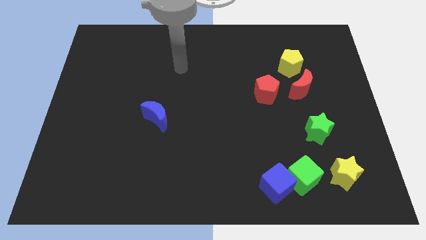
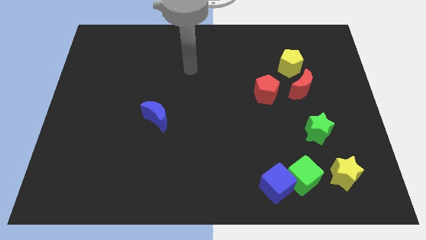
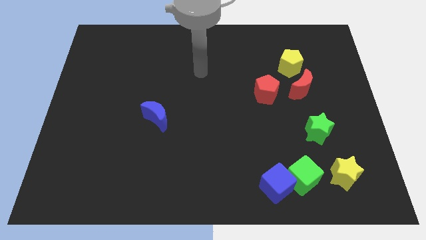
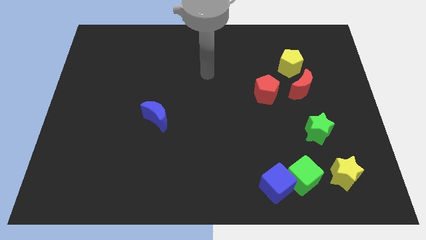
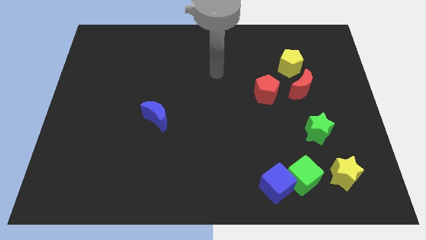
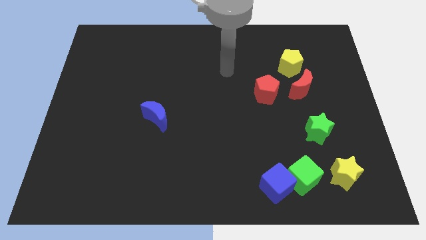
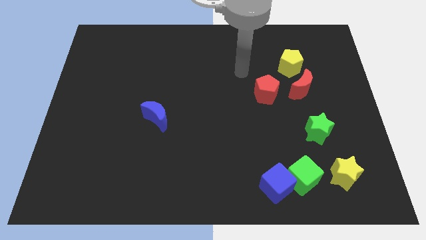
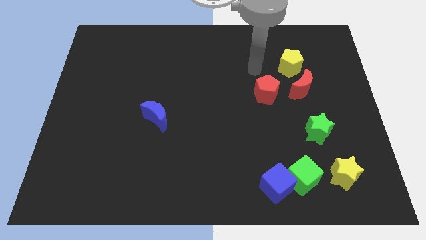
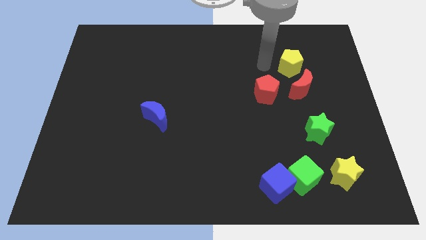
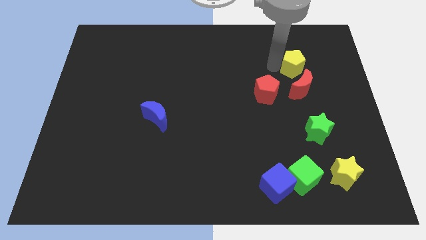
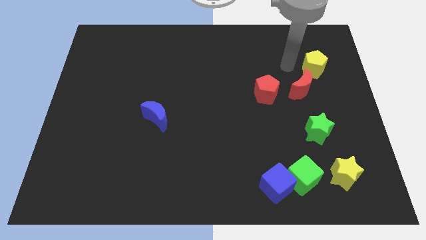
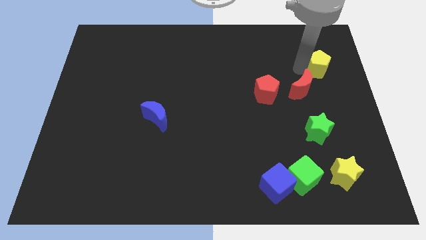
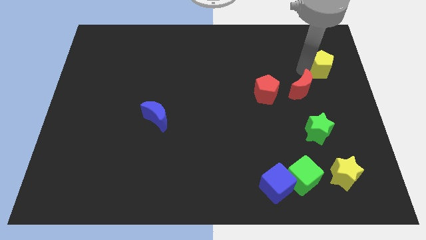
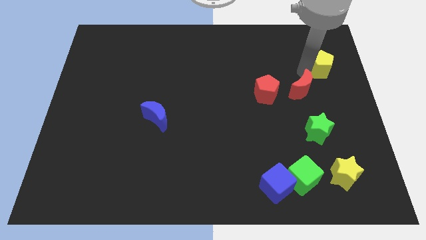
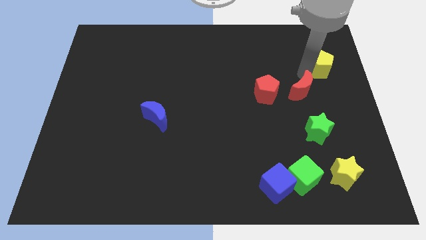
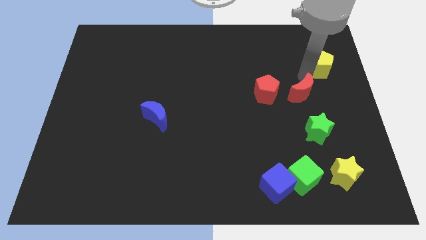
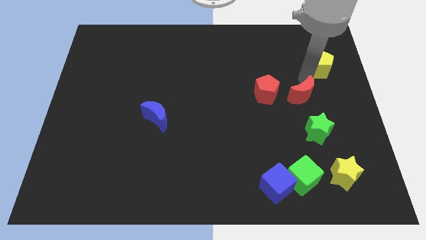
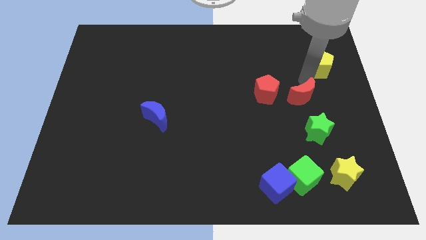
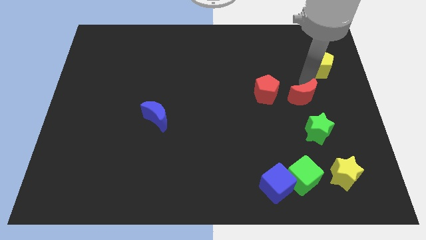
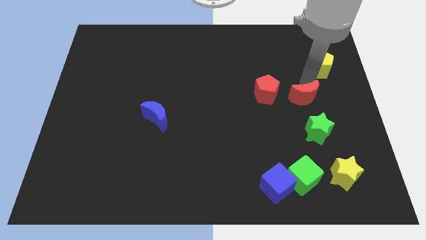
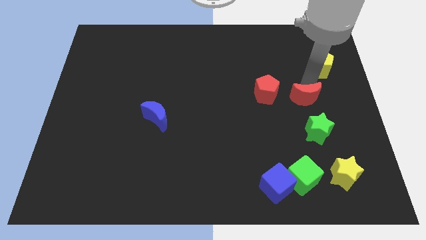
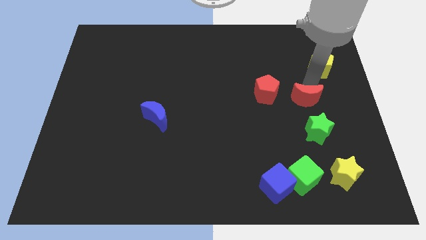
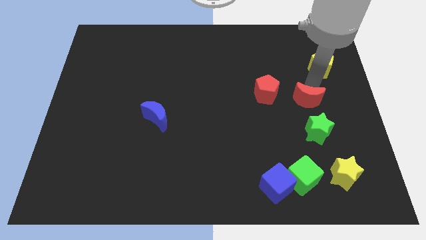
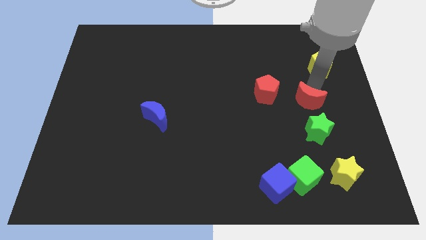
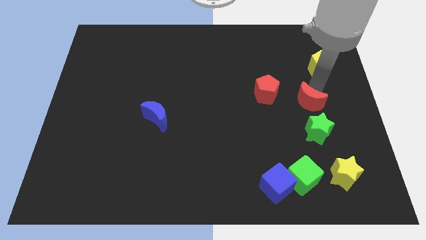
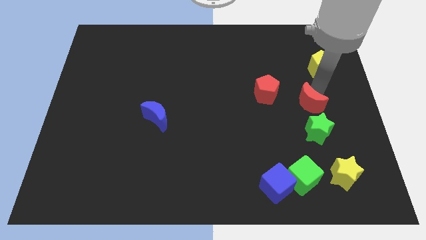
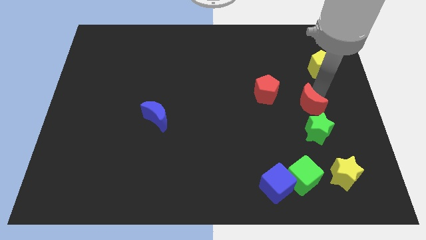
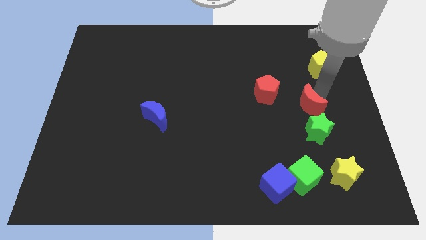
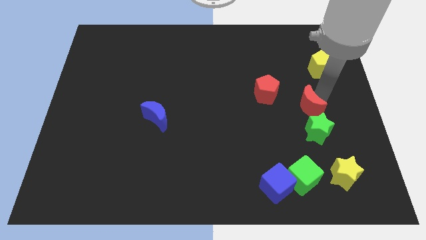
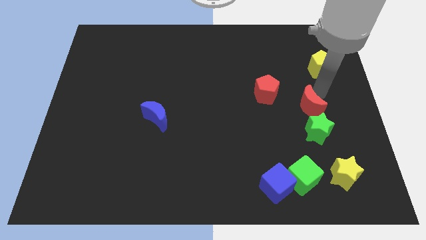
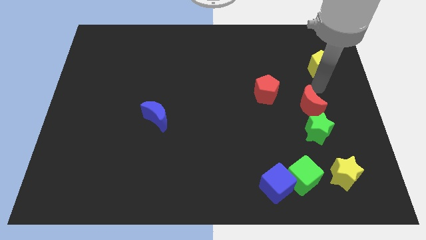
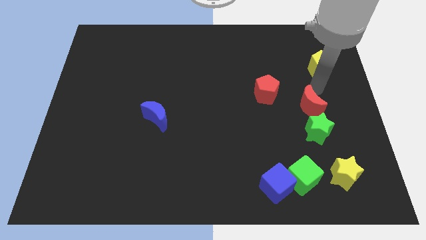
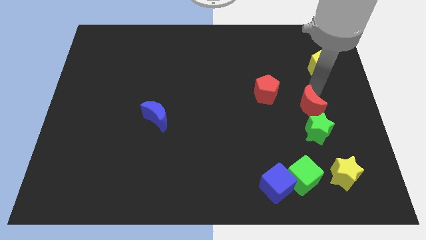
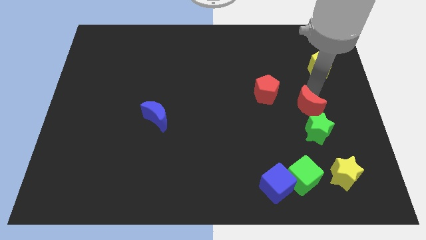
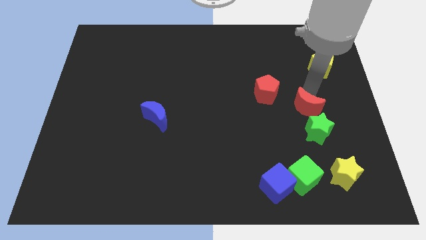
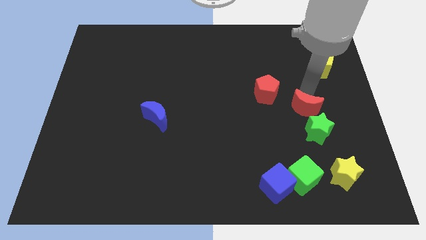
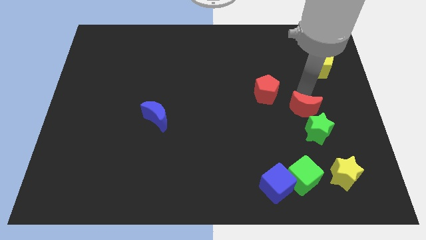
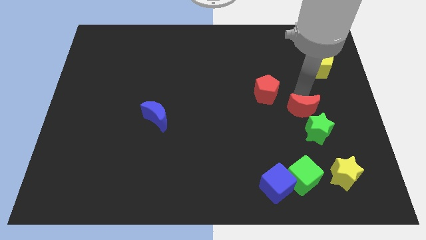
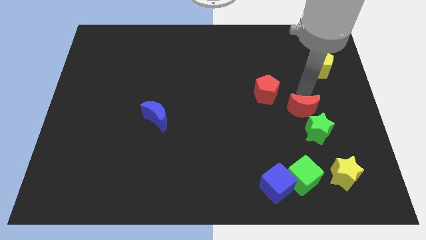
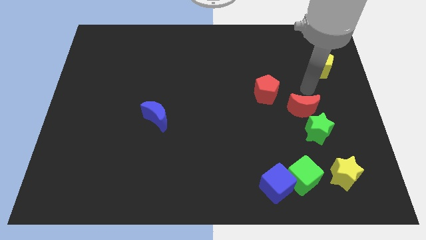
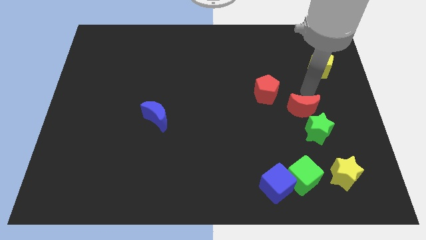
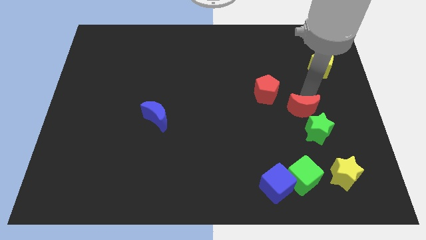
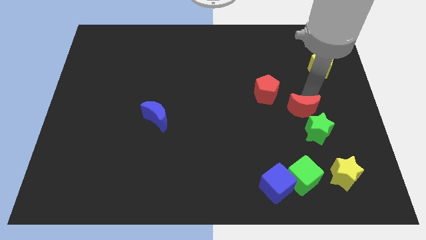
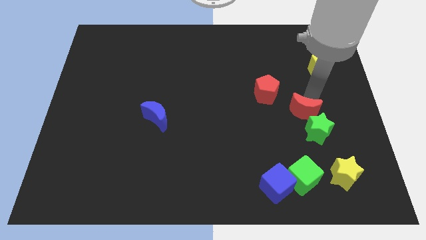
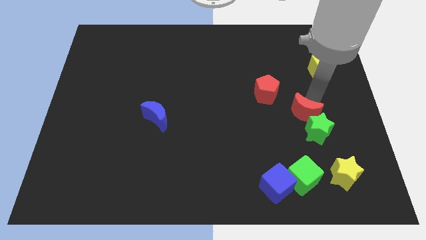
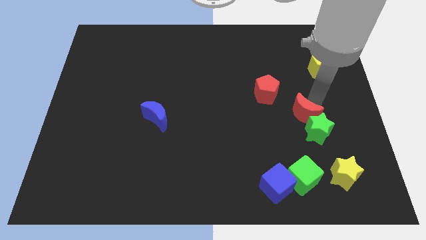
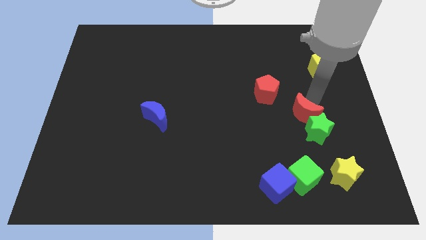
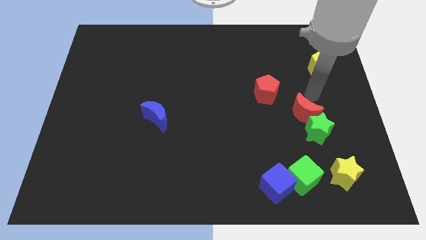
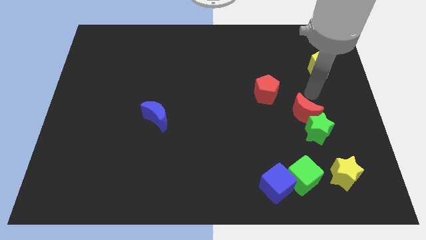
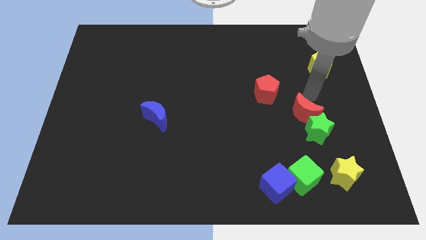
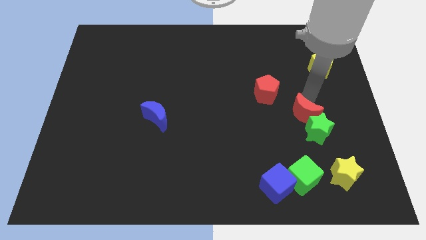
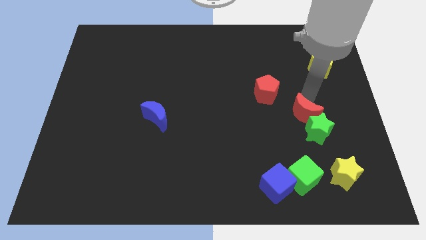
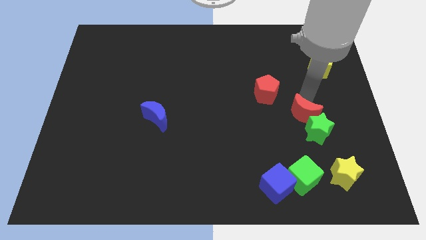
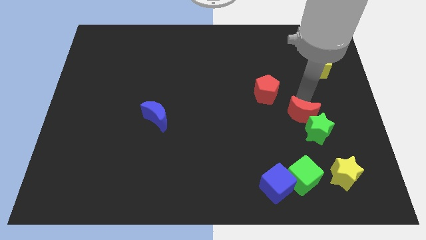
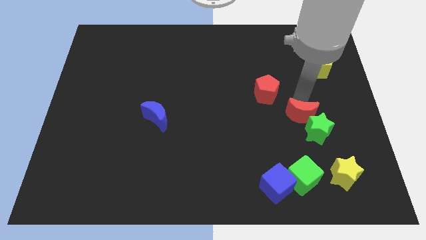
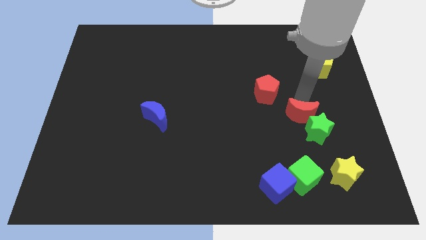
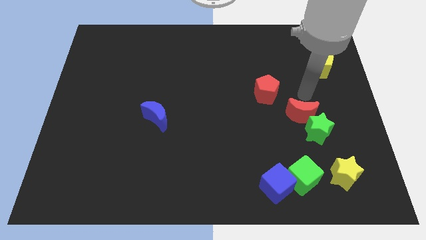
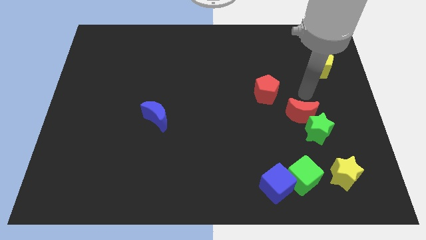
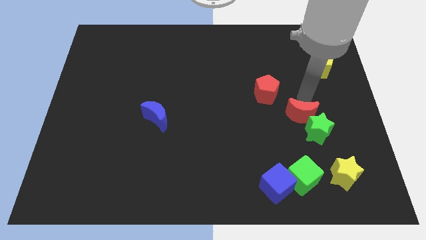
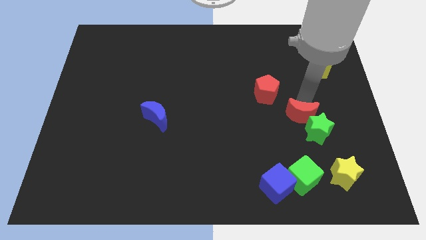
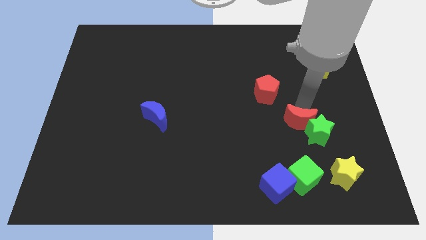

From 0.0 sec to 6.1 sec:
push the red moon to the top of the green cube

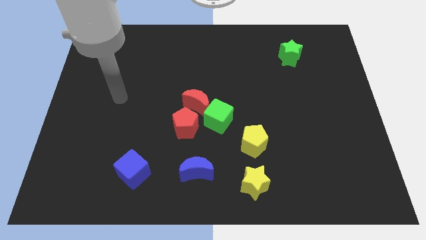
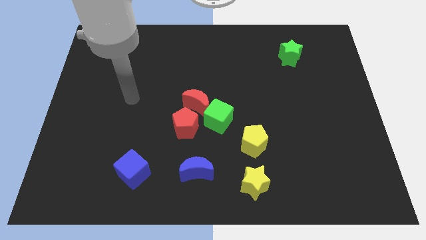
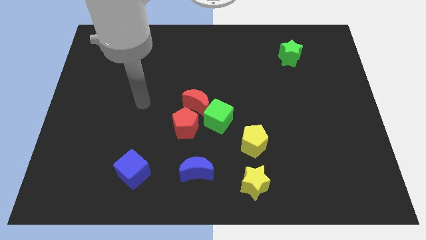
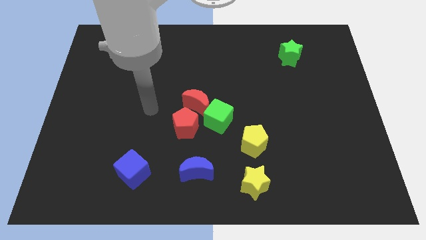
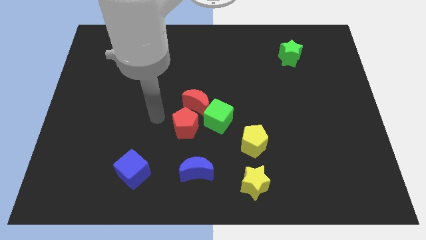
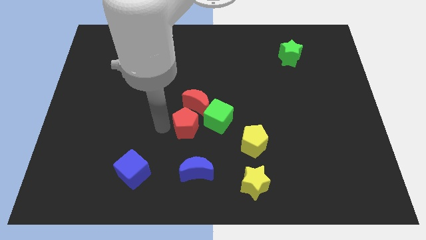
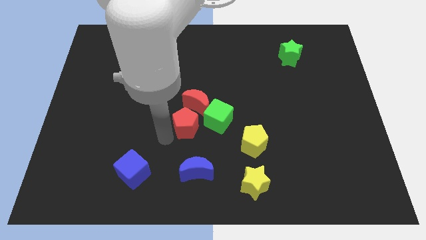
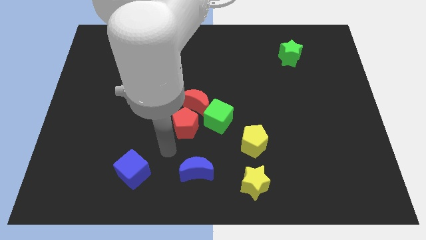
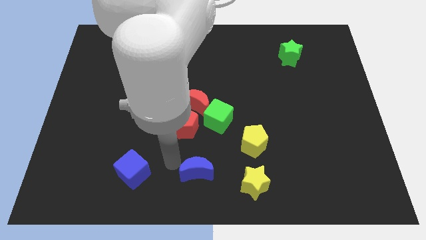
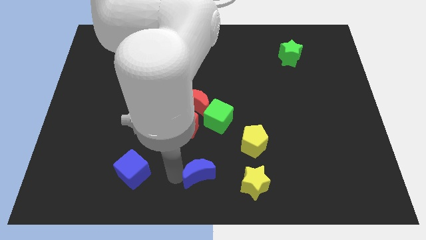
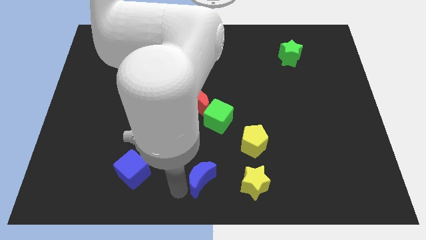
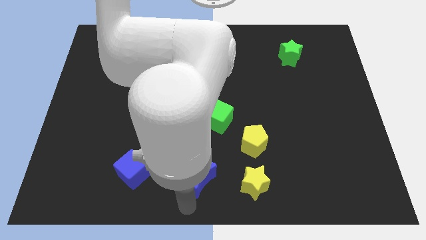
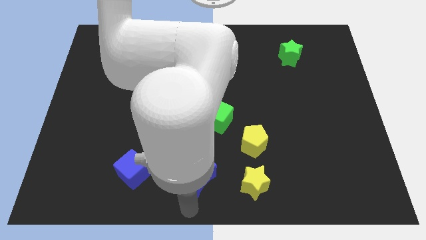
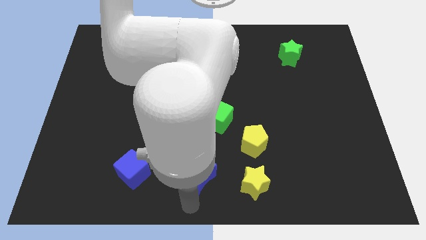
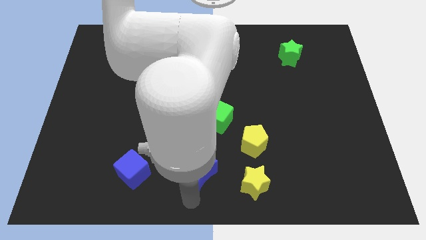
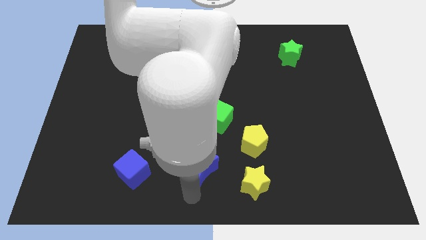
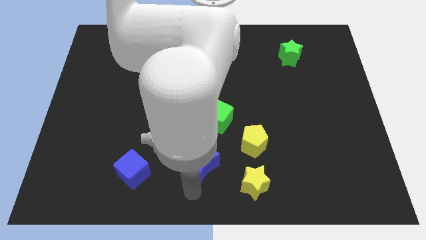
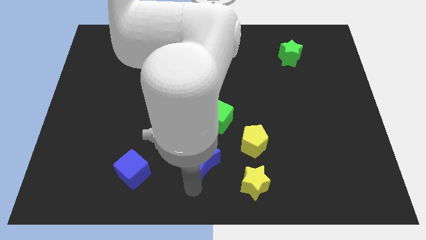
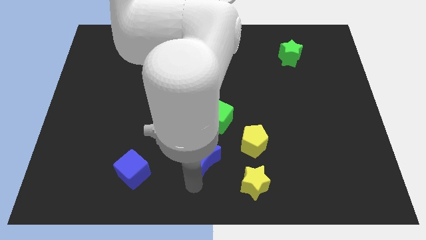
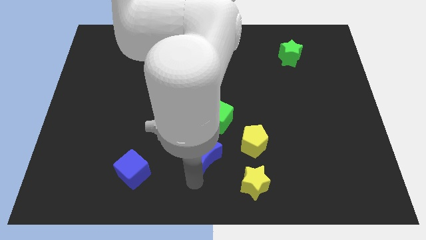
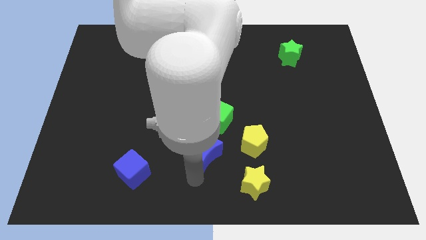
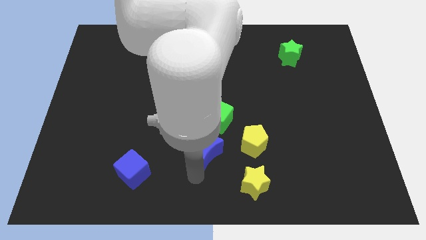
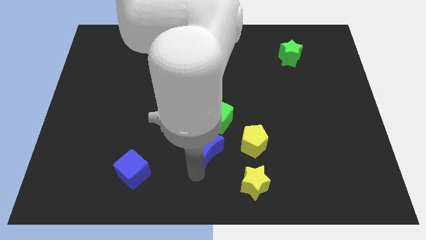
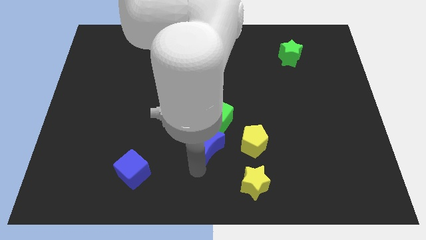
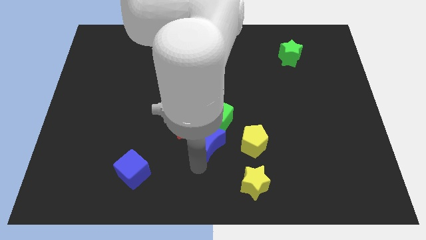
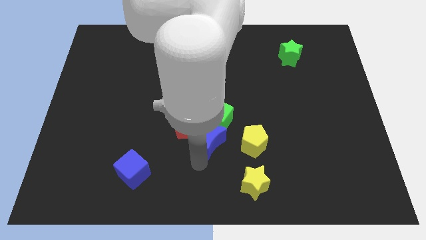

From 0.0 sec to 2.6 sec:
put the blue moon right of the red pentagon
